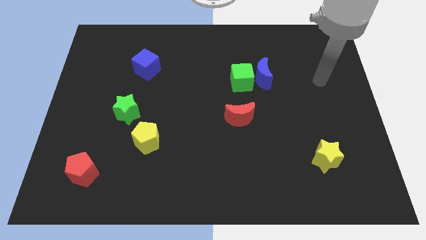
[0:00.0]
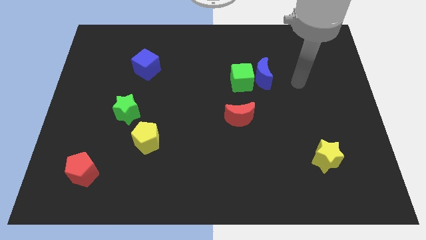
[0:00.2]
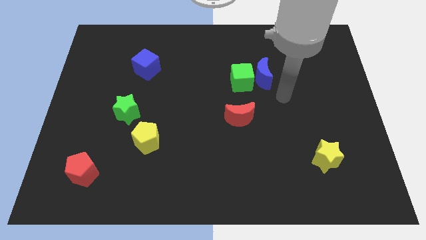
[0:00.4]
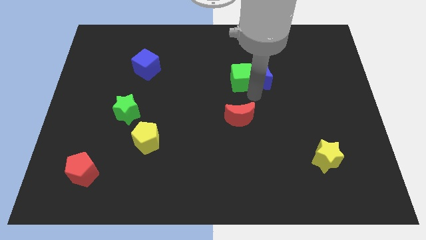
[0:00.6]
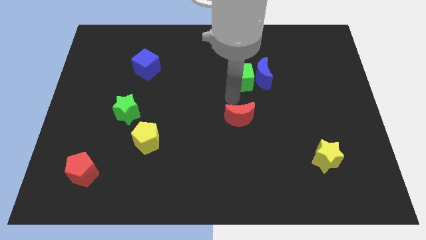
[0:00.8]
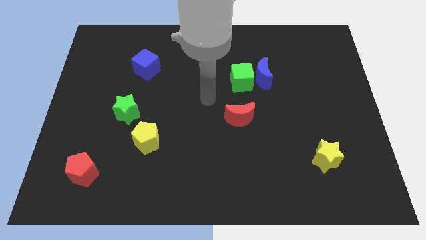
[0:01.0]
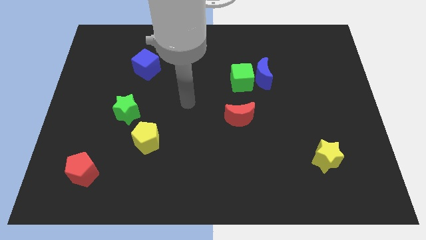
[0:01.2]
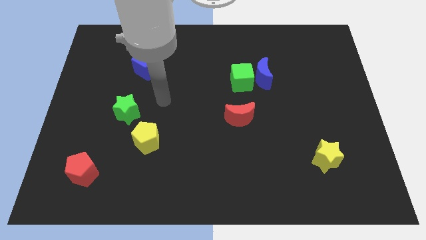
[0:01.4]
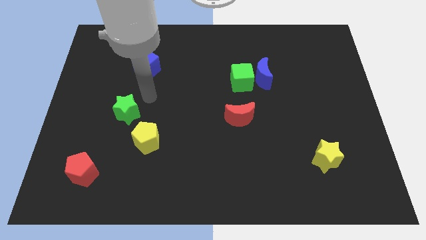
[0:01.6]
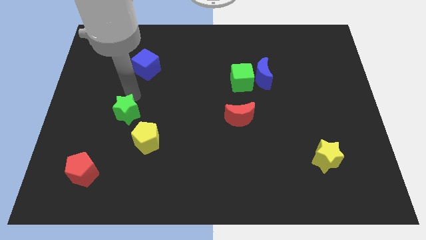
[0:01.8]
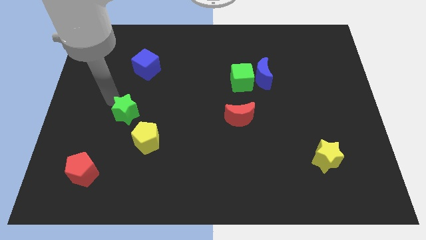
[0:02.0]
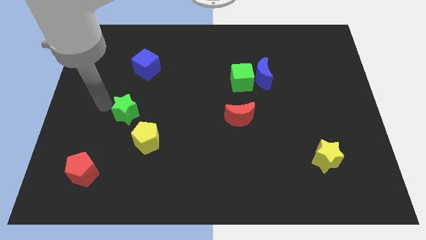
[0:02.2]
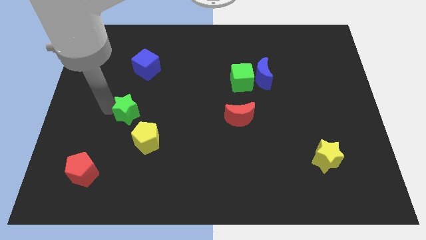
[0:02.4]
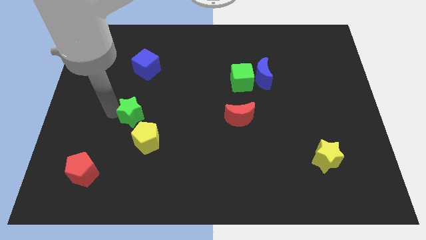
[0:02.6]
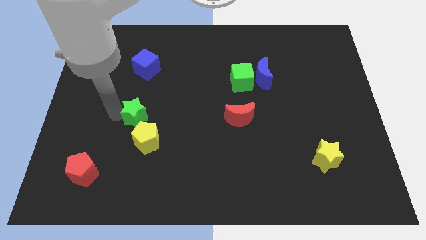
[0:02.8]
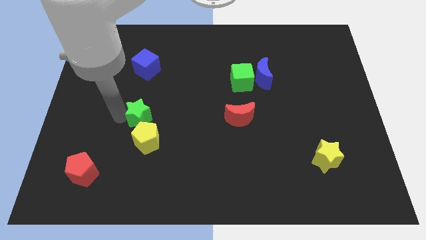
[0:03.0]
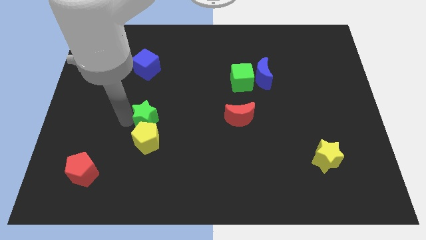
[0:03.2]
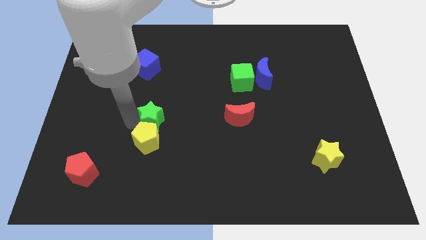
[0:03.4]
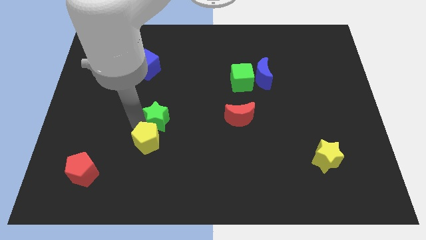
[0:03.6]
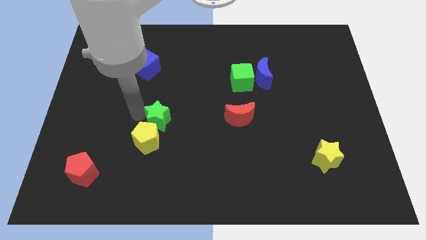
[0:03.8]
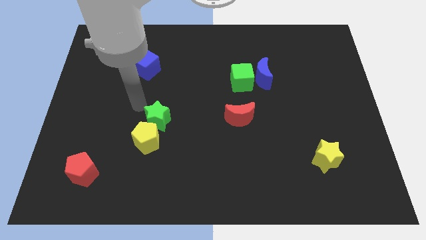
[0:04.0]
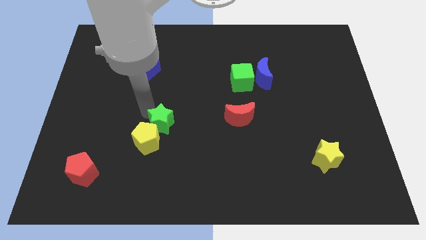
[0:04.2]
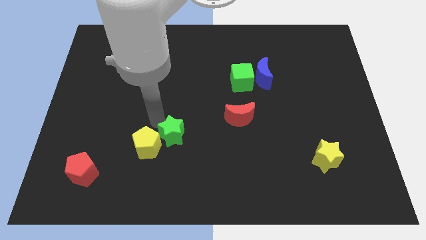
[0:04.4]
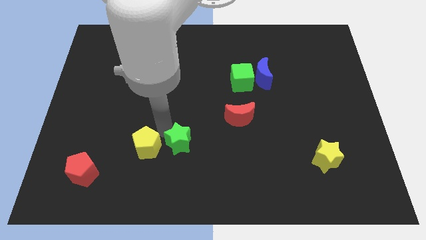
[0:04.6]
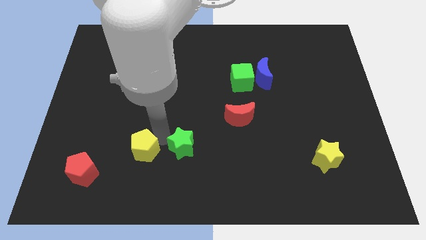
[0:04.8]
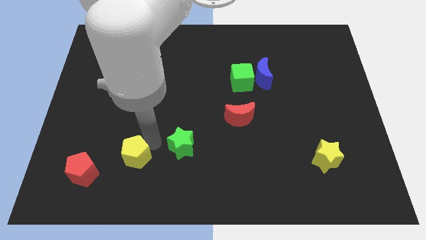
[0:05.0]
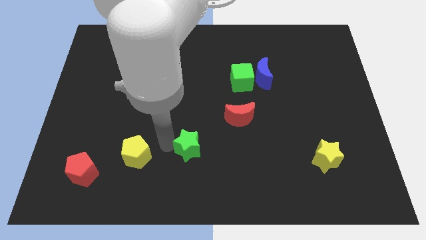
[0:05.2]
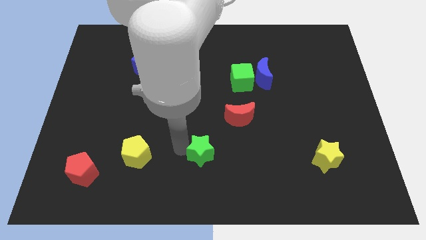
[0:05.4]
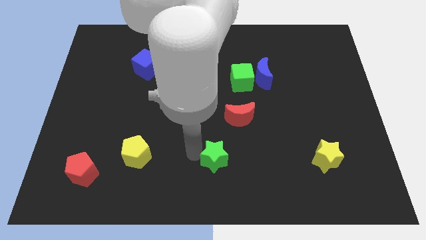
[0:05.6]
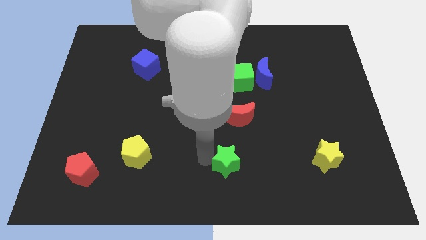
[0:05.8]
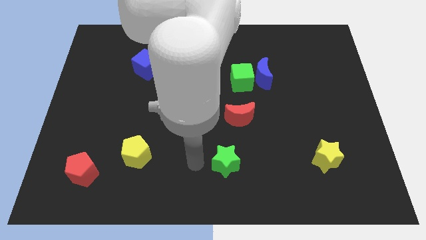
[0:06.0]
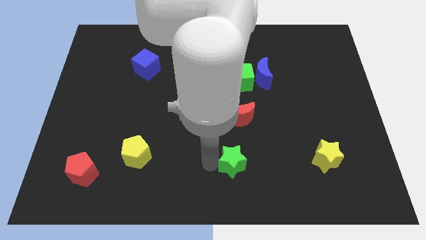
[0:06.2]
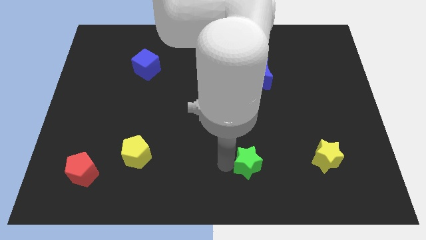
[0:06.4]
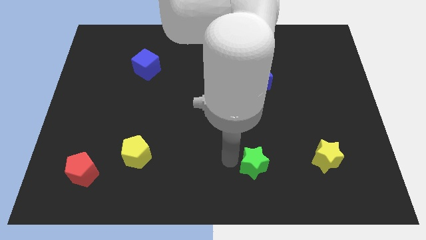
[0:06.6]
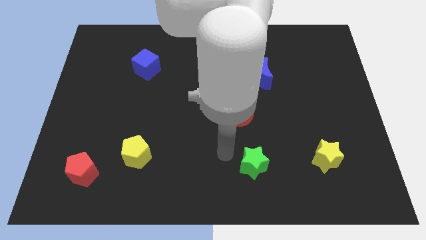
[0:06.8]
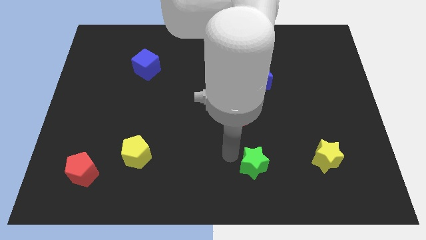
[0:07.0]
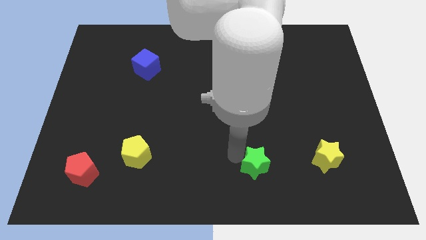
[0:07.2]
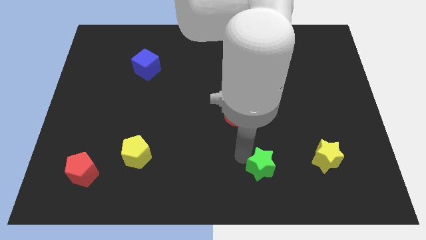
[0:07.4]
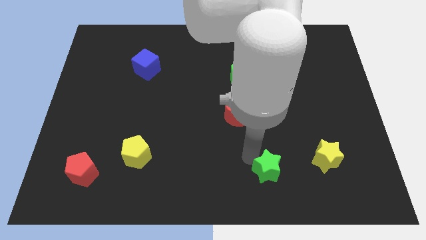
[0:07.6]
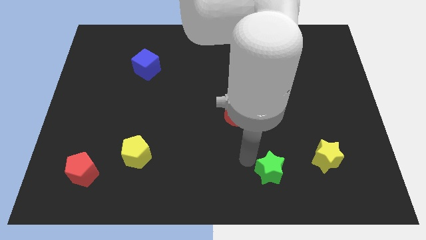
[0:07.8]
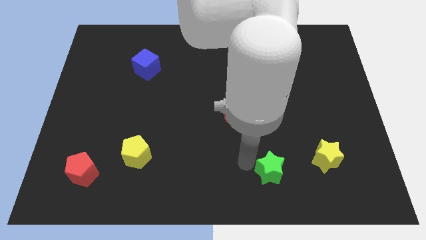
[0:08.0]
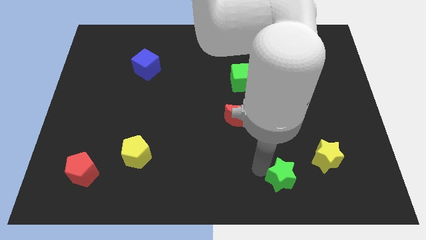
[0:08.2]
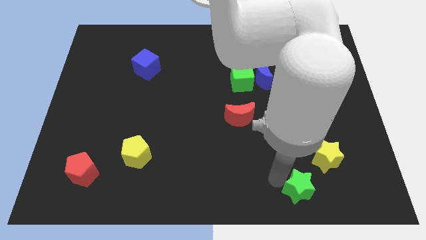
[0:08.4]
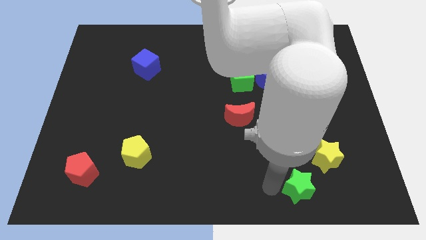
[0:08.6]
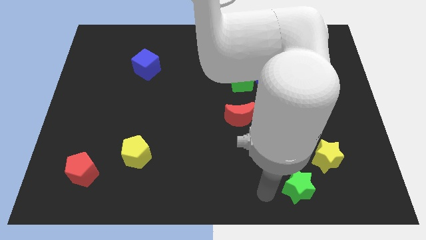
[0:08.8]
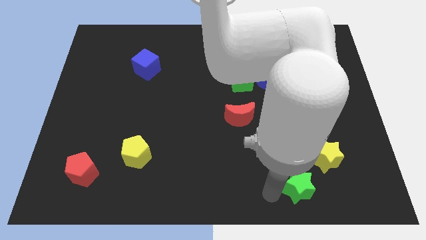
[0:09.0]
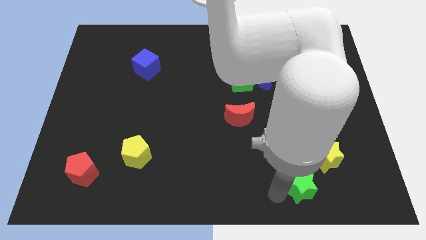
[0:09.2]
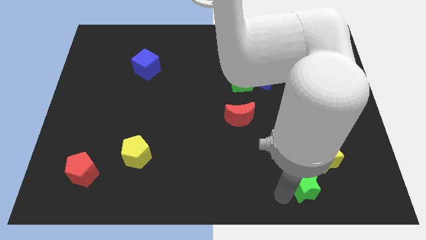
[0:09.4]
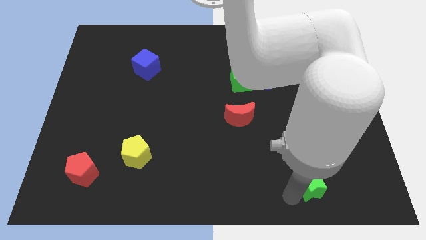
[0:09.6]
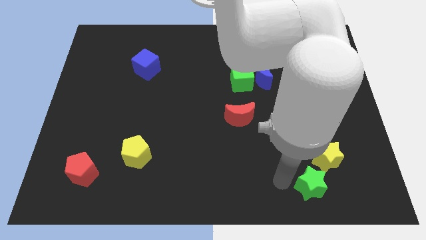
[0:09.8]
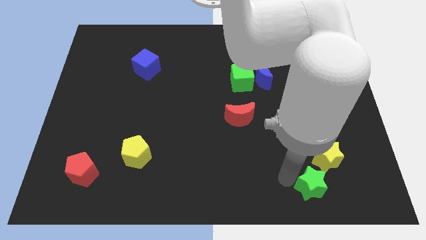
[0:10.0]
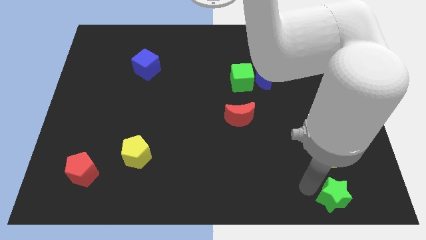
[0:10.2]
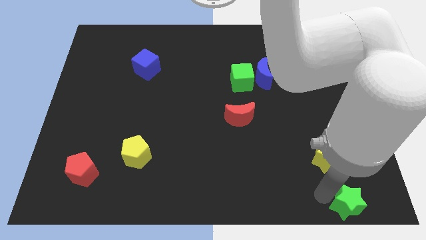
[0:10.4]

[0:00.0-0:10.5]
move the green star to the lower right corner
